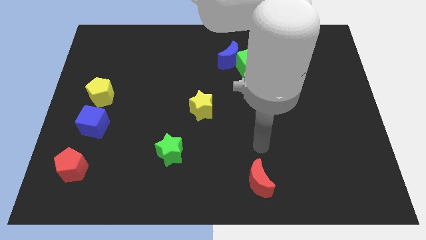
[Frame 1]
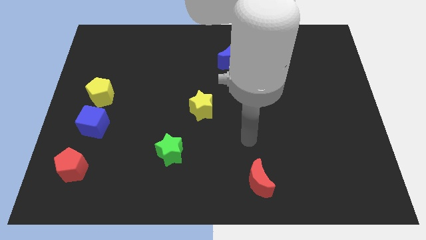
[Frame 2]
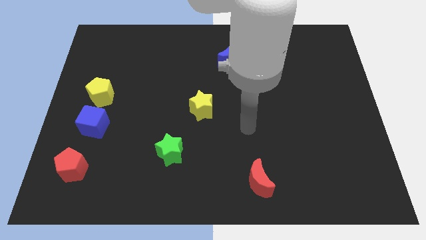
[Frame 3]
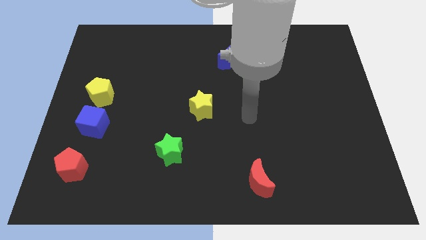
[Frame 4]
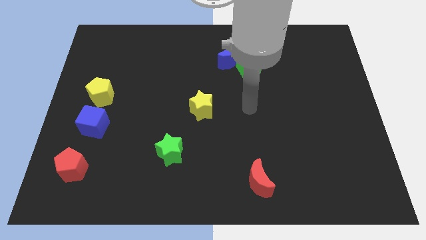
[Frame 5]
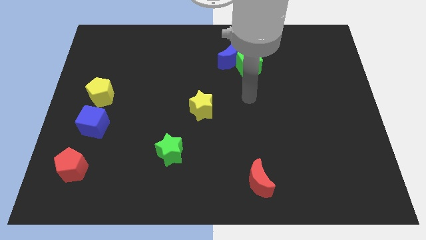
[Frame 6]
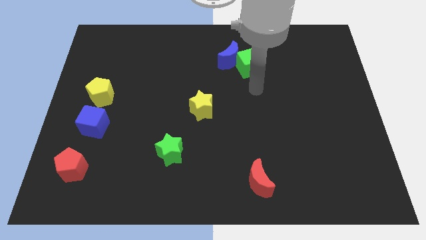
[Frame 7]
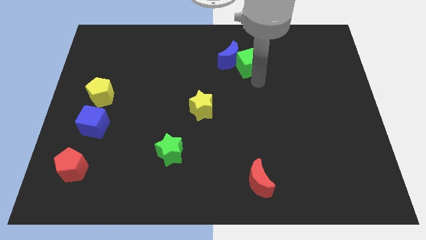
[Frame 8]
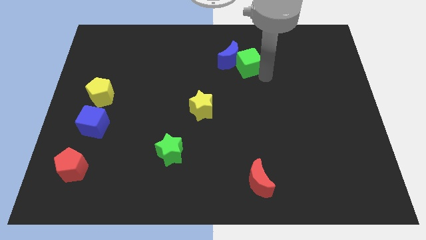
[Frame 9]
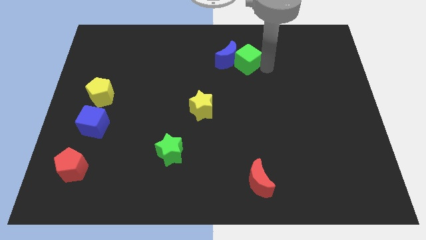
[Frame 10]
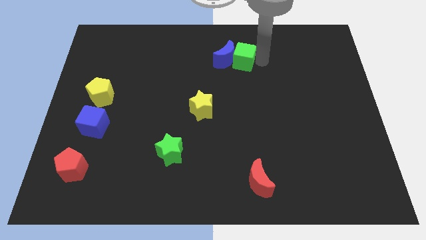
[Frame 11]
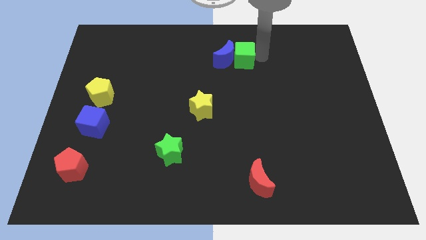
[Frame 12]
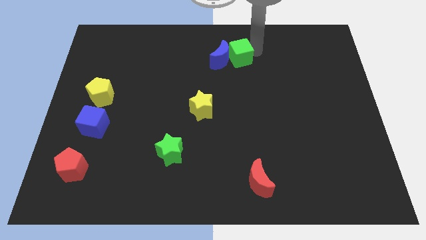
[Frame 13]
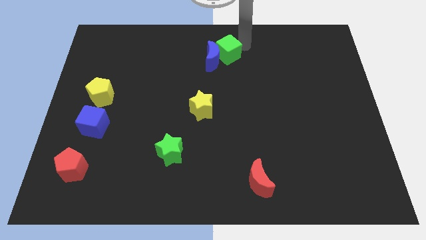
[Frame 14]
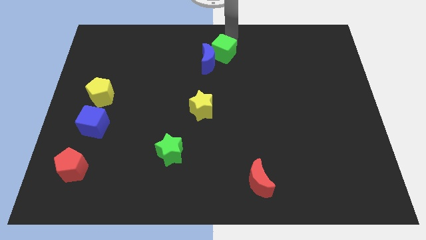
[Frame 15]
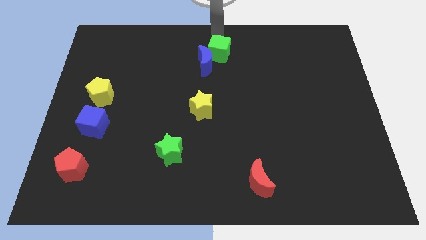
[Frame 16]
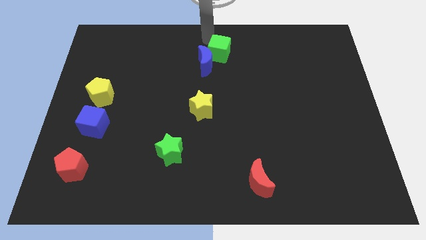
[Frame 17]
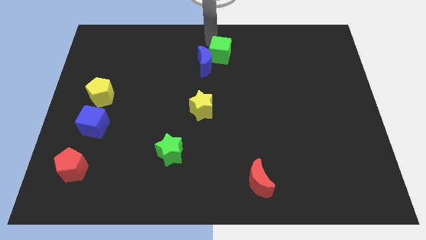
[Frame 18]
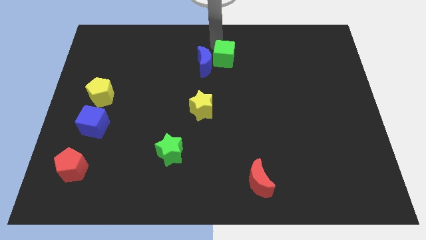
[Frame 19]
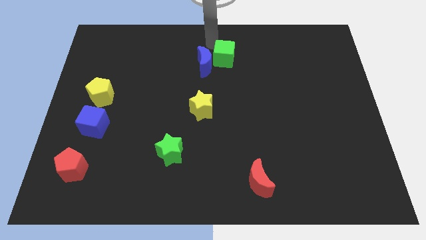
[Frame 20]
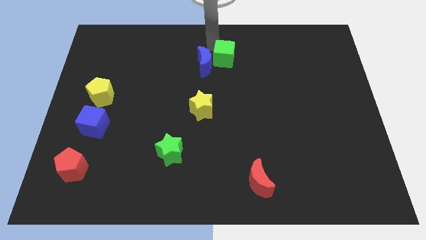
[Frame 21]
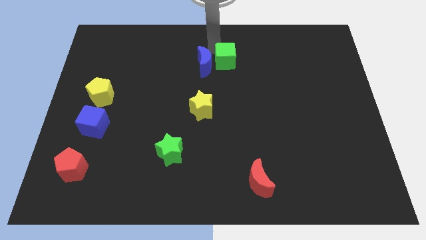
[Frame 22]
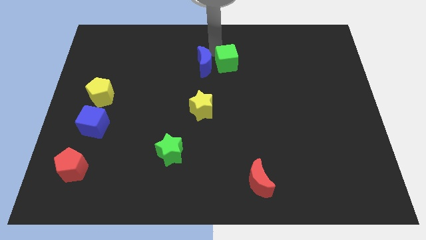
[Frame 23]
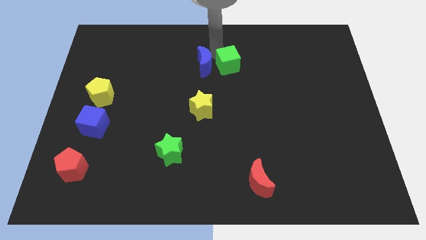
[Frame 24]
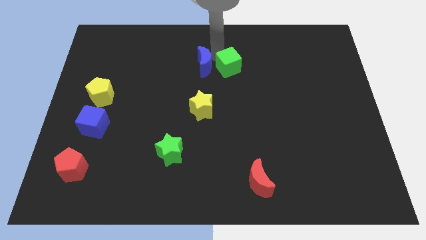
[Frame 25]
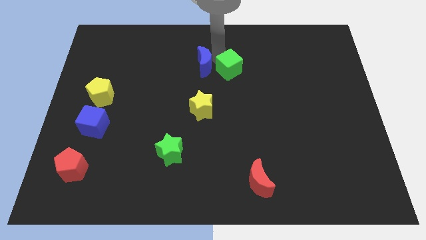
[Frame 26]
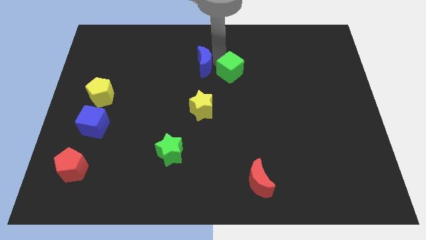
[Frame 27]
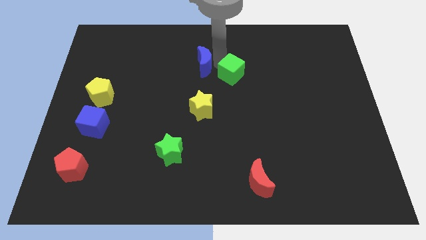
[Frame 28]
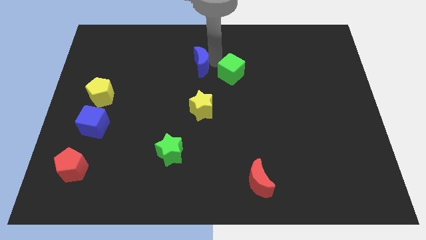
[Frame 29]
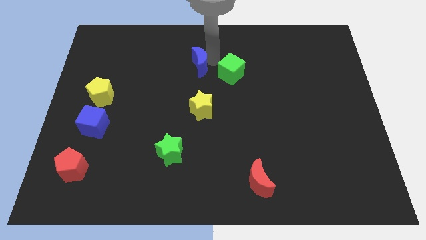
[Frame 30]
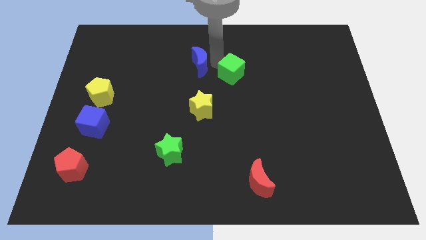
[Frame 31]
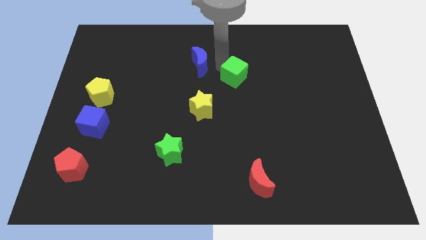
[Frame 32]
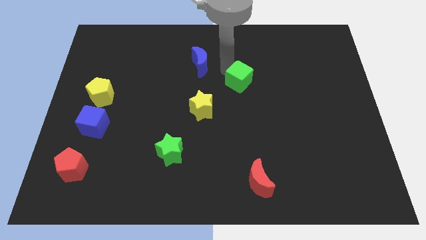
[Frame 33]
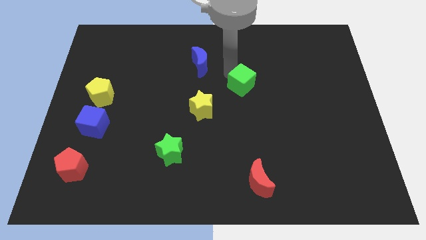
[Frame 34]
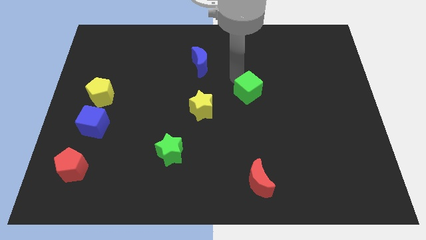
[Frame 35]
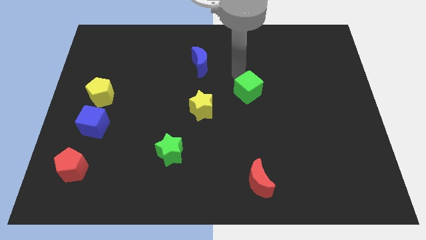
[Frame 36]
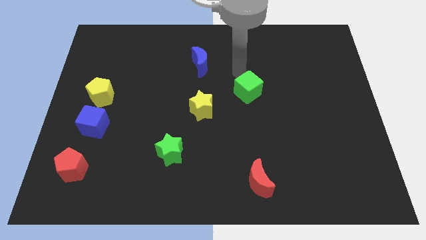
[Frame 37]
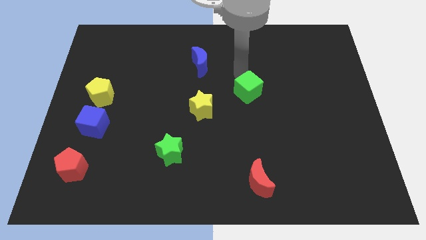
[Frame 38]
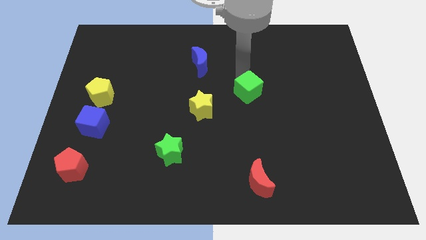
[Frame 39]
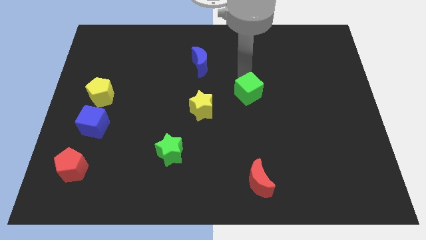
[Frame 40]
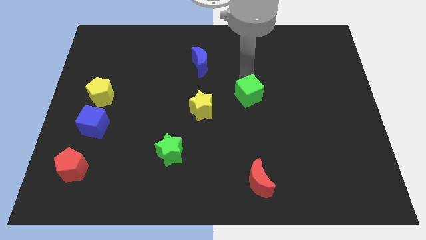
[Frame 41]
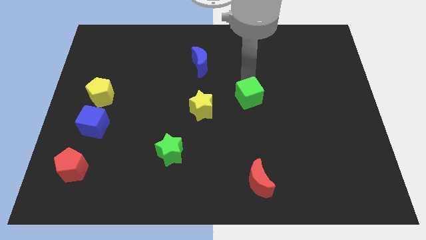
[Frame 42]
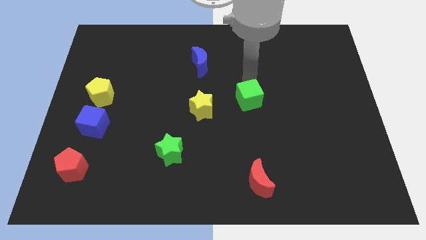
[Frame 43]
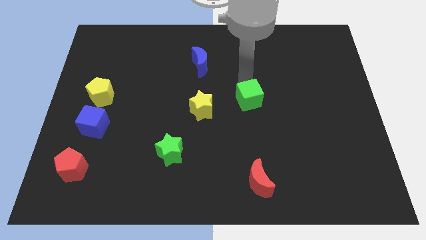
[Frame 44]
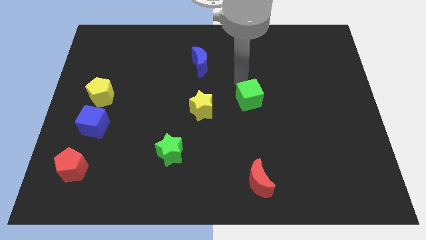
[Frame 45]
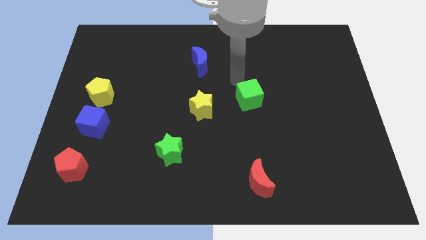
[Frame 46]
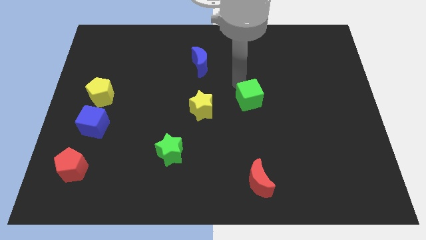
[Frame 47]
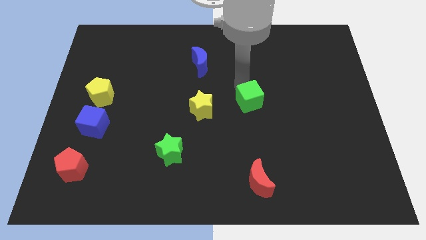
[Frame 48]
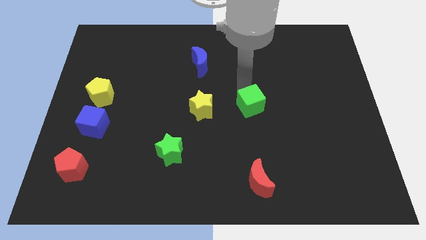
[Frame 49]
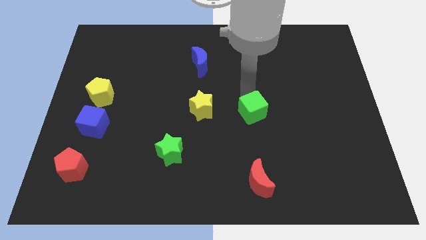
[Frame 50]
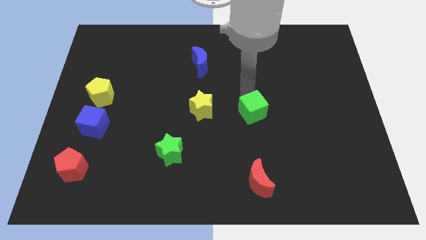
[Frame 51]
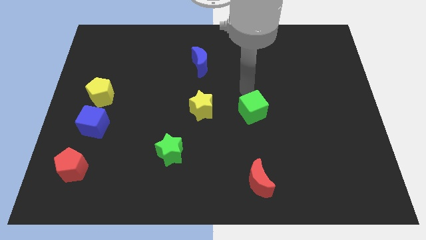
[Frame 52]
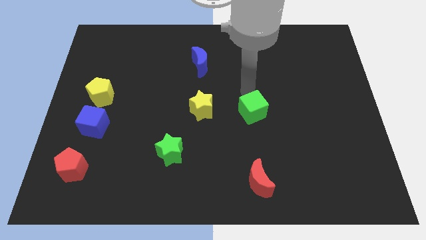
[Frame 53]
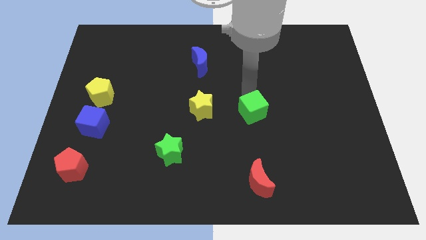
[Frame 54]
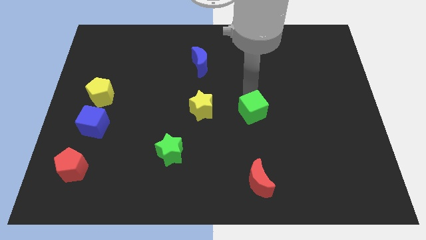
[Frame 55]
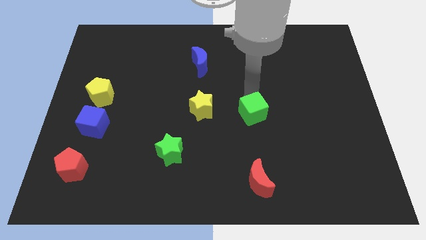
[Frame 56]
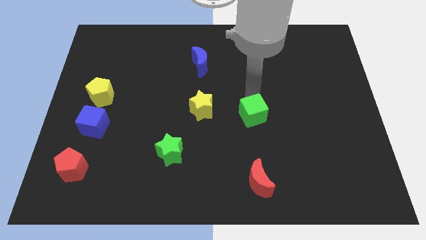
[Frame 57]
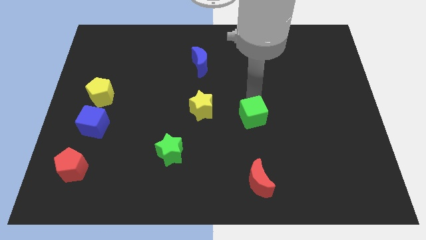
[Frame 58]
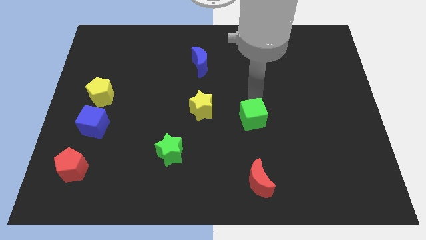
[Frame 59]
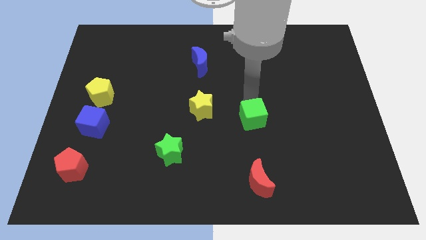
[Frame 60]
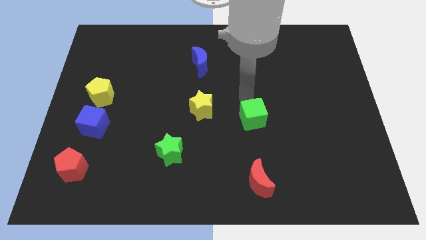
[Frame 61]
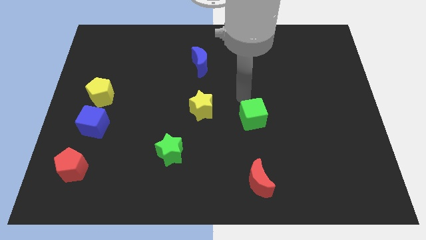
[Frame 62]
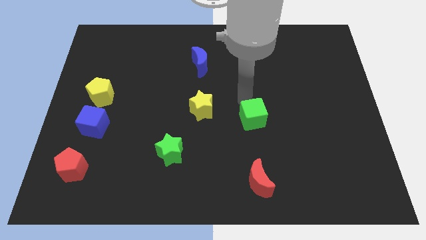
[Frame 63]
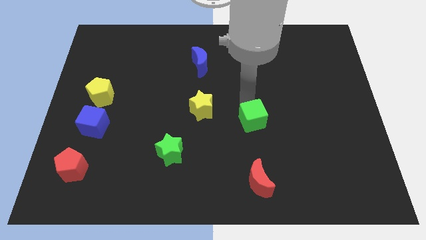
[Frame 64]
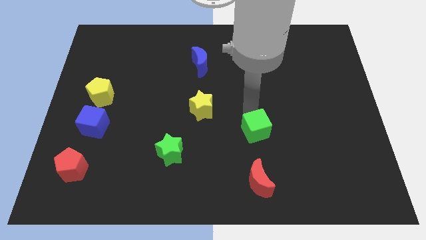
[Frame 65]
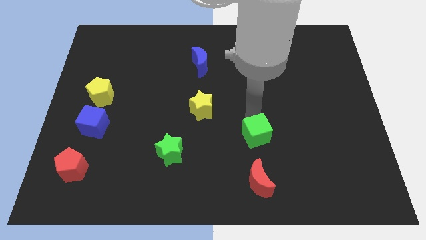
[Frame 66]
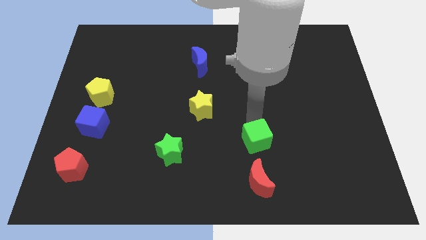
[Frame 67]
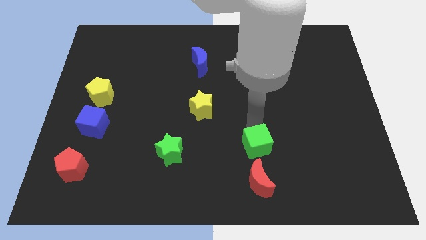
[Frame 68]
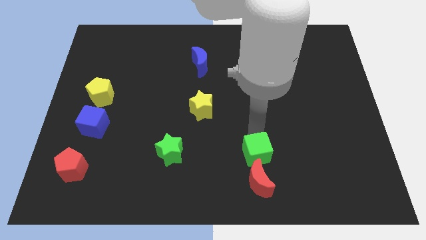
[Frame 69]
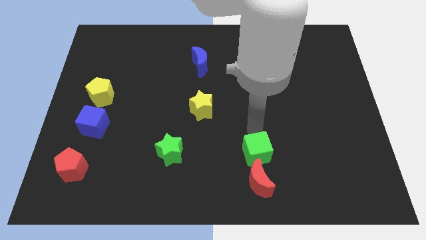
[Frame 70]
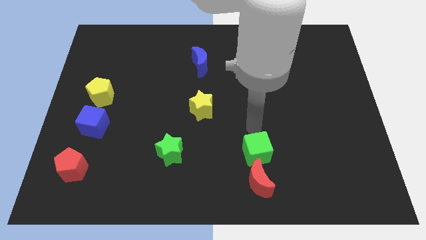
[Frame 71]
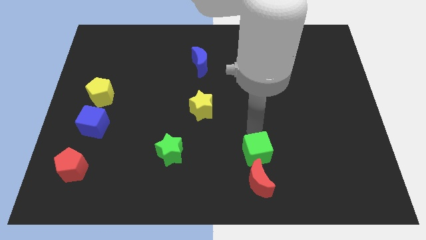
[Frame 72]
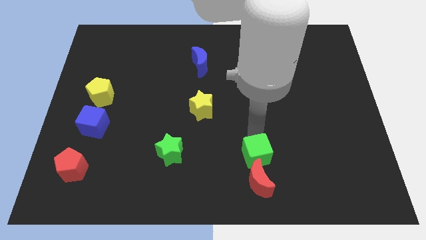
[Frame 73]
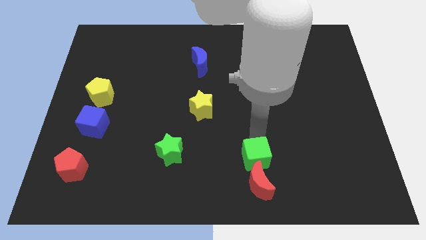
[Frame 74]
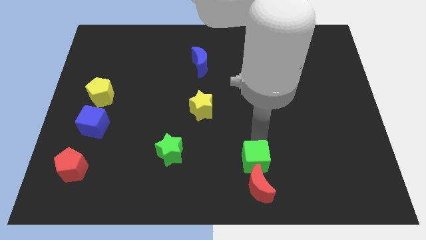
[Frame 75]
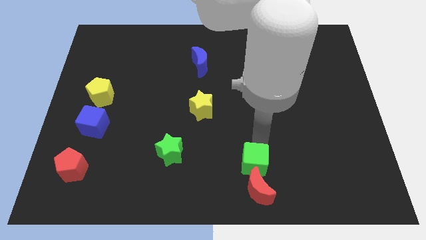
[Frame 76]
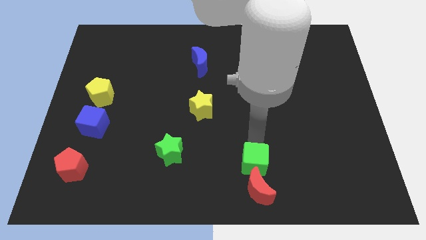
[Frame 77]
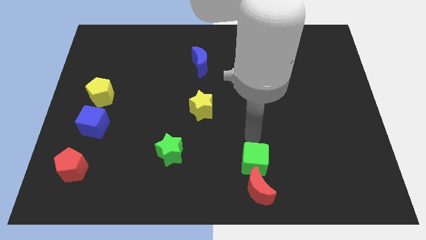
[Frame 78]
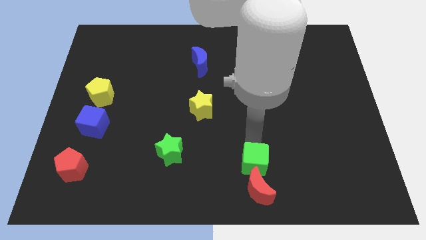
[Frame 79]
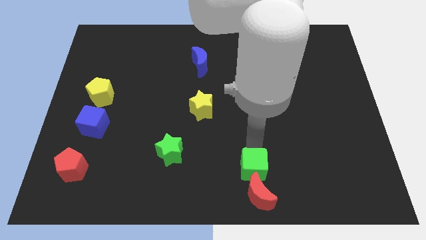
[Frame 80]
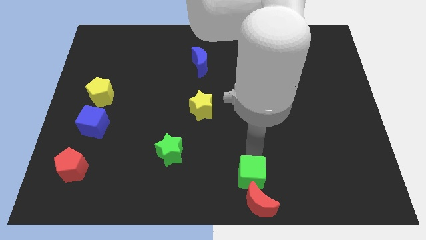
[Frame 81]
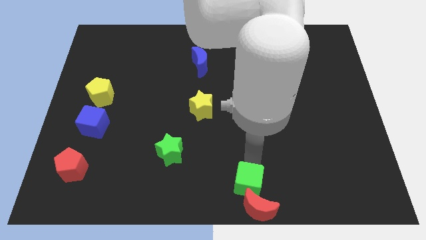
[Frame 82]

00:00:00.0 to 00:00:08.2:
move the green cube to the red moon
